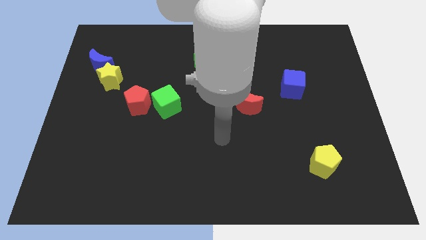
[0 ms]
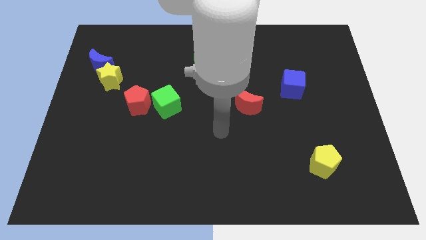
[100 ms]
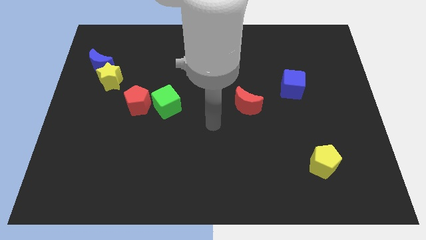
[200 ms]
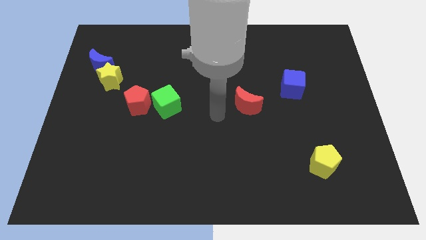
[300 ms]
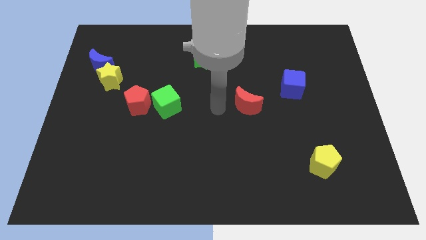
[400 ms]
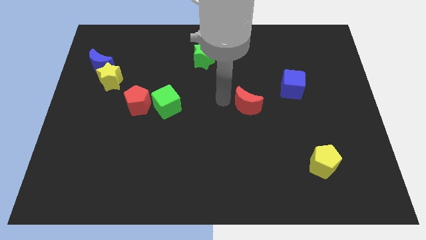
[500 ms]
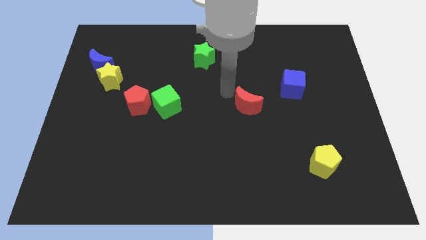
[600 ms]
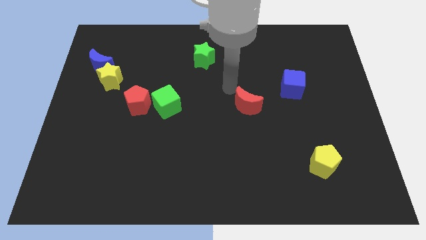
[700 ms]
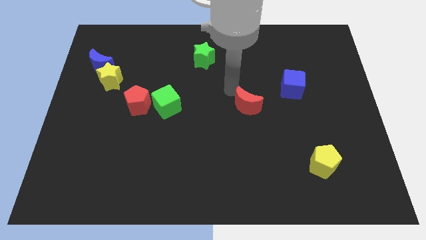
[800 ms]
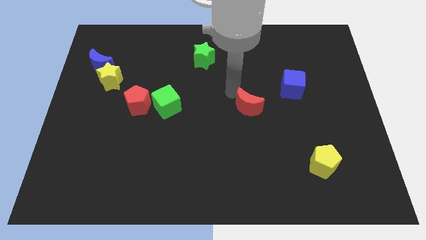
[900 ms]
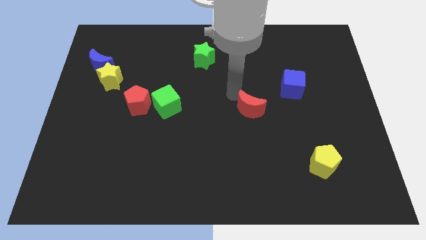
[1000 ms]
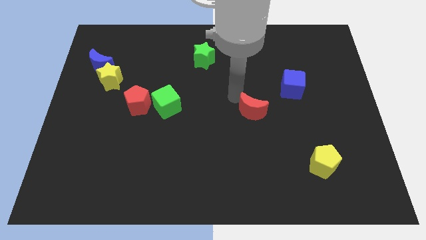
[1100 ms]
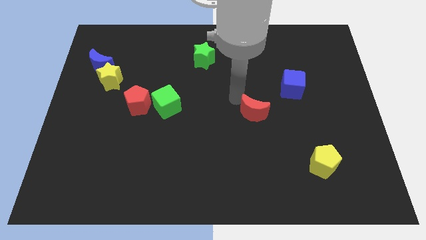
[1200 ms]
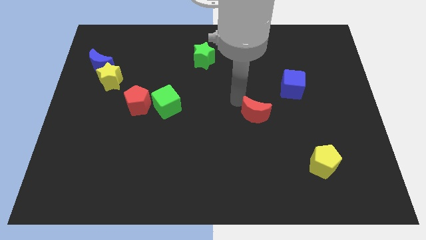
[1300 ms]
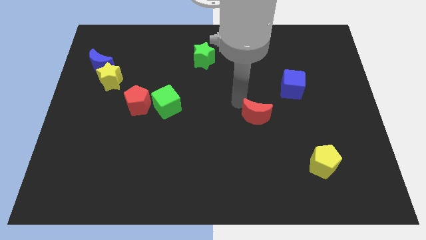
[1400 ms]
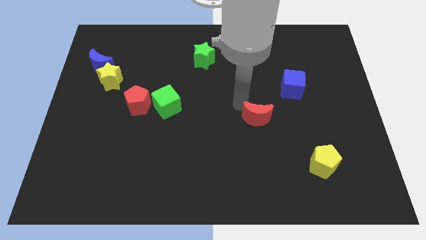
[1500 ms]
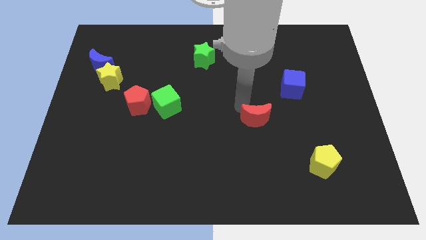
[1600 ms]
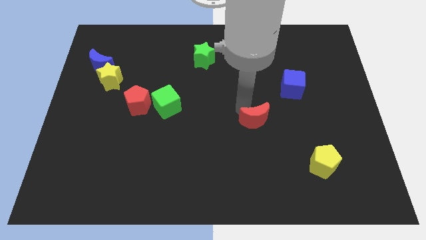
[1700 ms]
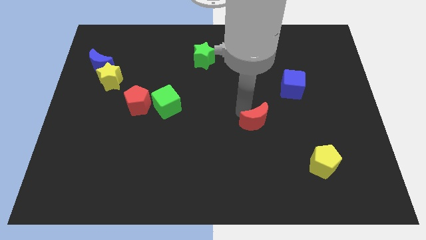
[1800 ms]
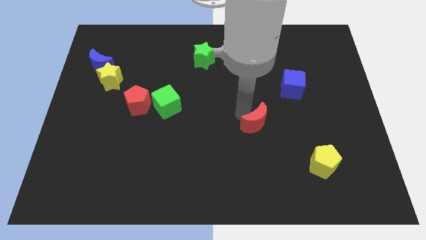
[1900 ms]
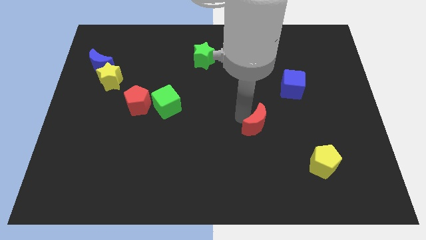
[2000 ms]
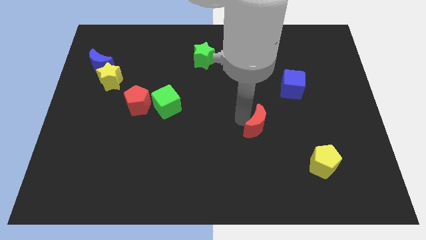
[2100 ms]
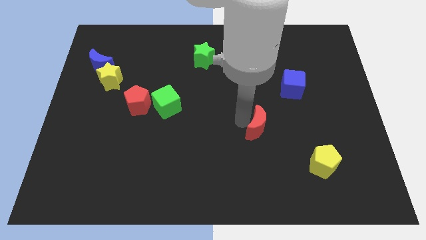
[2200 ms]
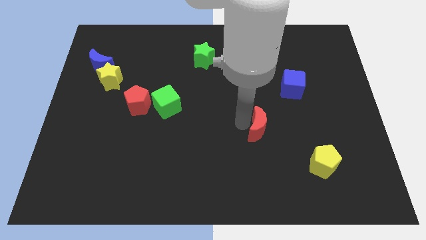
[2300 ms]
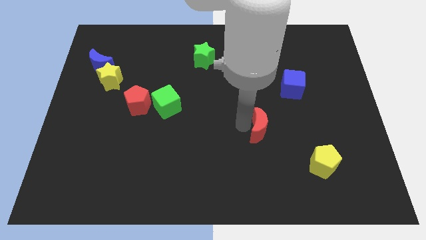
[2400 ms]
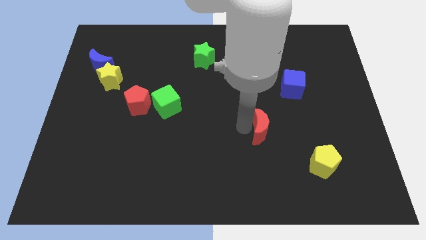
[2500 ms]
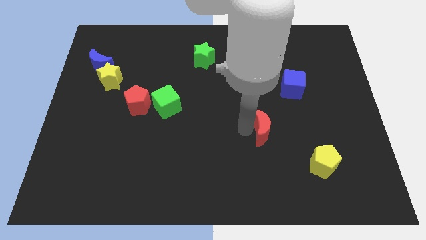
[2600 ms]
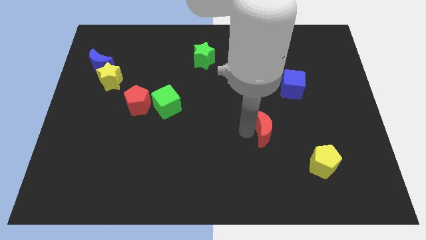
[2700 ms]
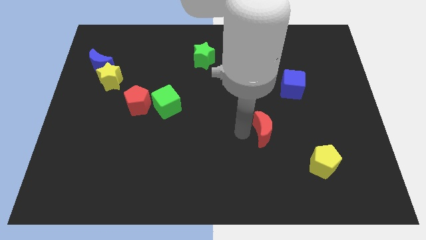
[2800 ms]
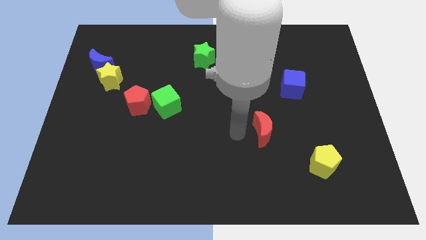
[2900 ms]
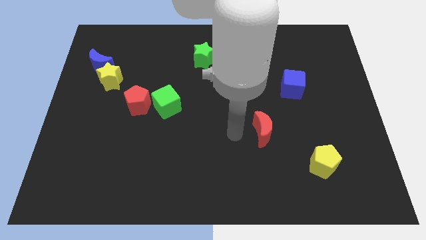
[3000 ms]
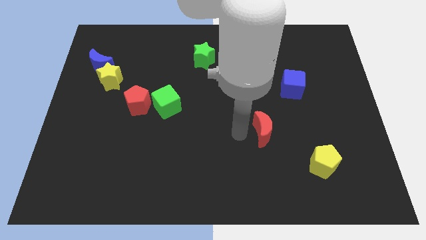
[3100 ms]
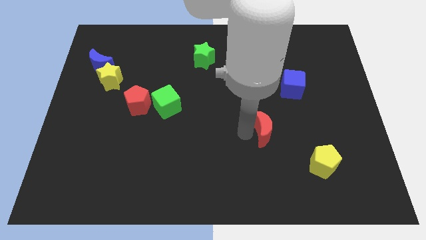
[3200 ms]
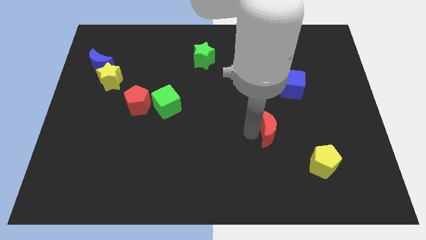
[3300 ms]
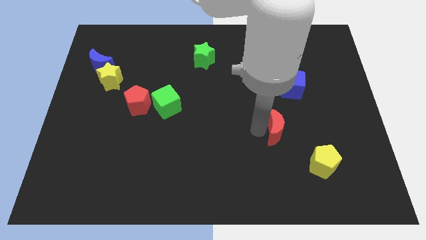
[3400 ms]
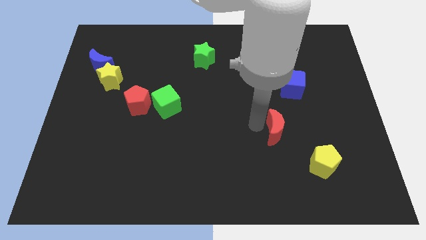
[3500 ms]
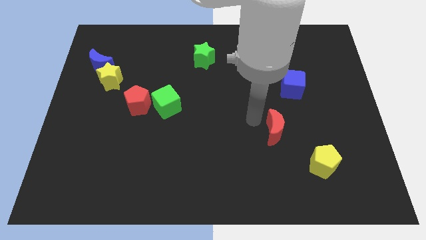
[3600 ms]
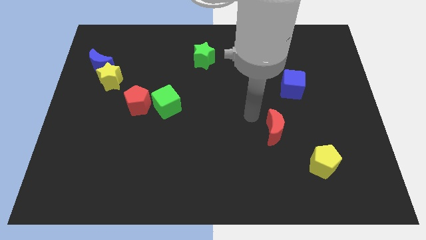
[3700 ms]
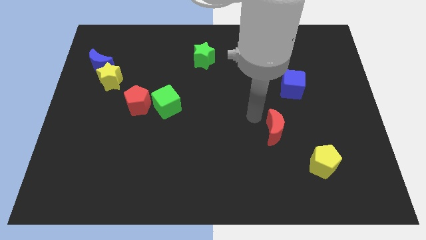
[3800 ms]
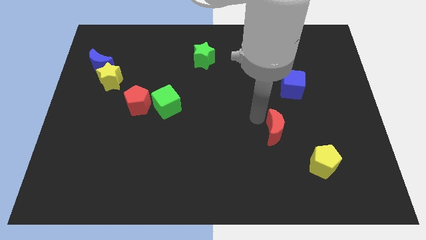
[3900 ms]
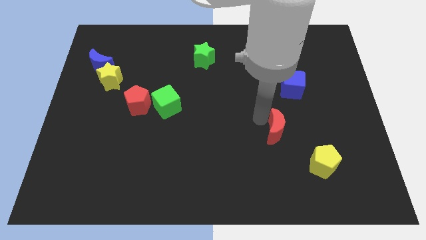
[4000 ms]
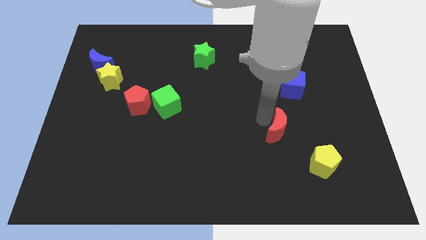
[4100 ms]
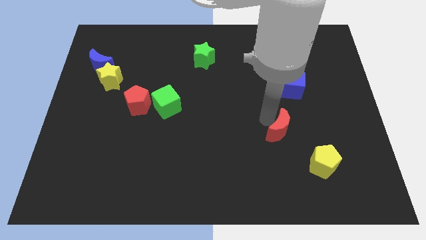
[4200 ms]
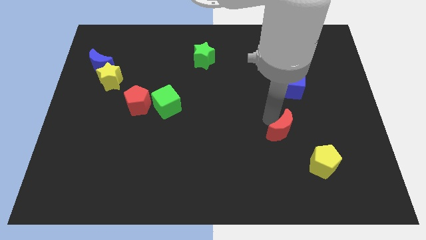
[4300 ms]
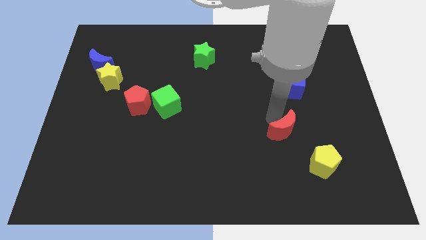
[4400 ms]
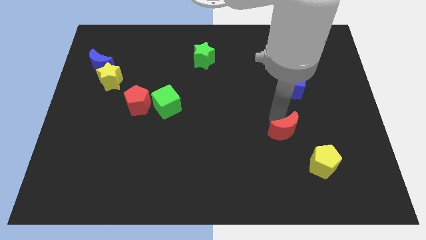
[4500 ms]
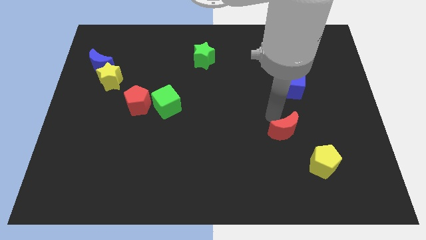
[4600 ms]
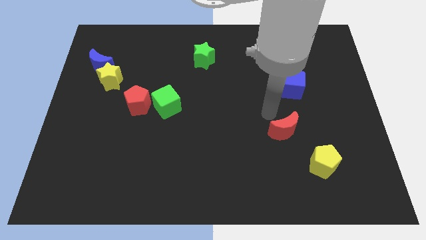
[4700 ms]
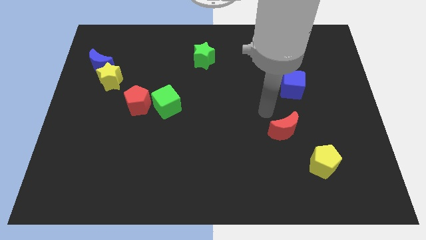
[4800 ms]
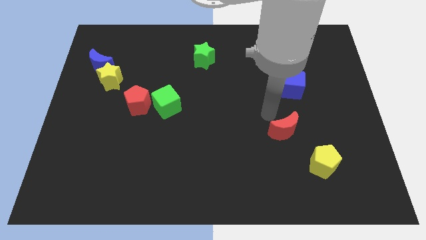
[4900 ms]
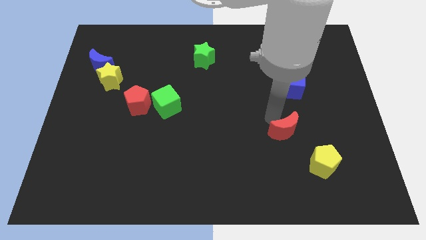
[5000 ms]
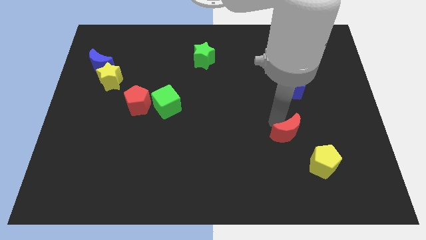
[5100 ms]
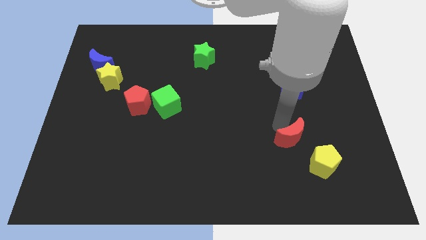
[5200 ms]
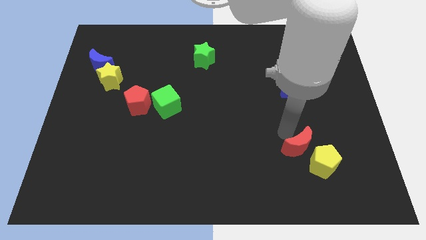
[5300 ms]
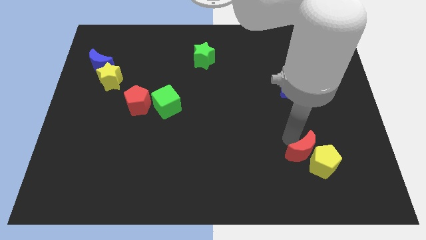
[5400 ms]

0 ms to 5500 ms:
put the red moon close to the yellow pentagon

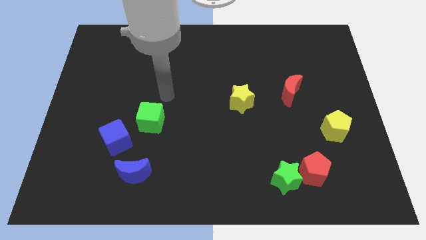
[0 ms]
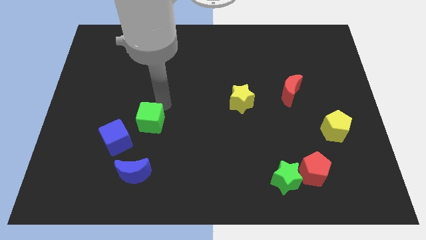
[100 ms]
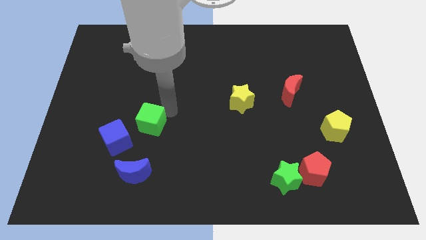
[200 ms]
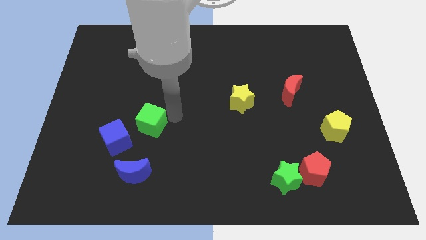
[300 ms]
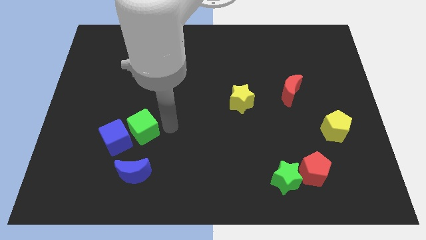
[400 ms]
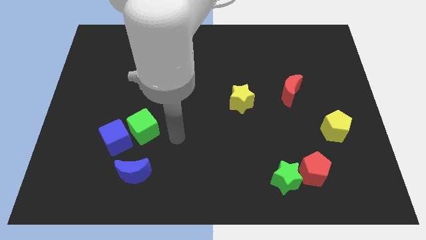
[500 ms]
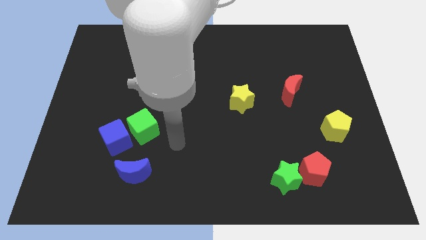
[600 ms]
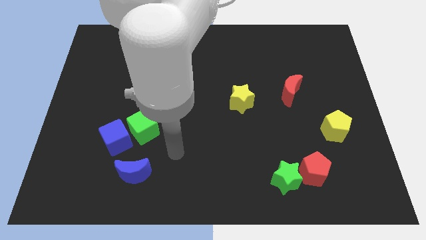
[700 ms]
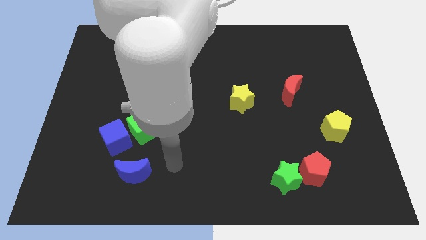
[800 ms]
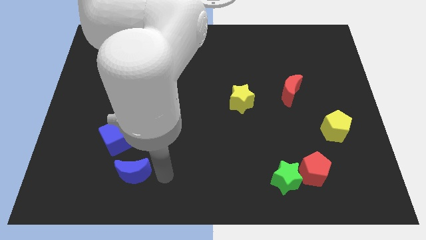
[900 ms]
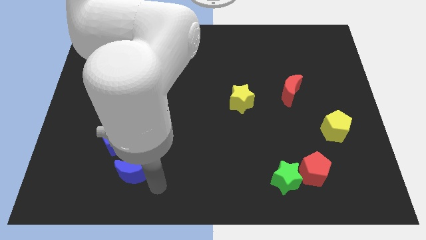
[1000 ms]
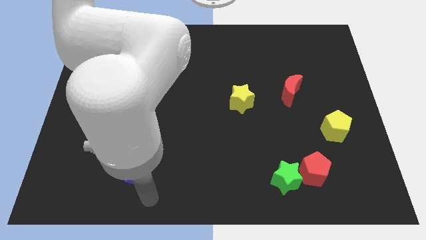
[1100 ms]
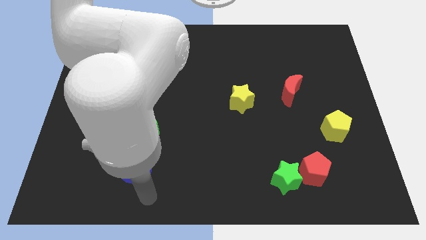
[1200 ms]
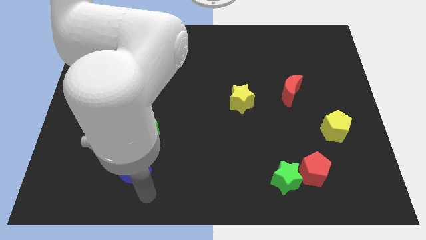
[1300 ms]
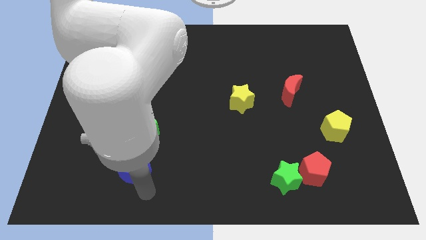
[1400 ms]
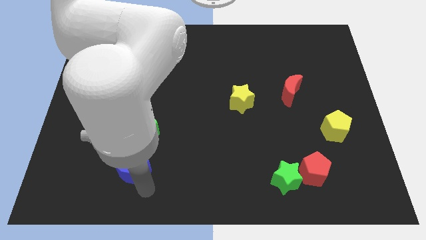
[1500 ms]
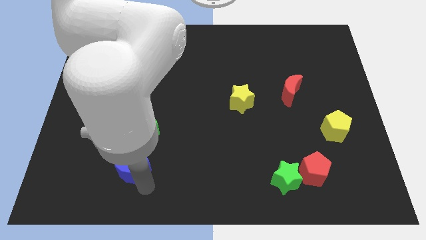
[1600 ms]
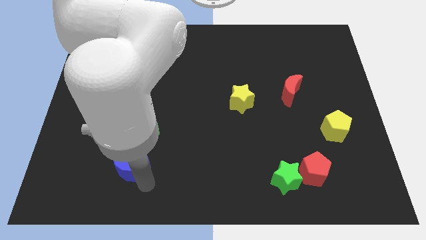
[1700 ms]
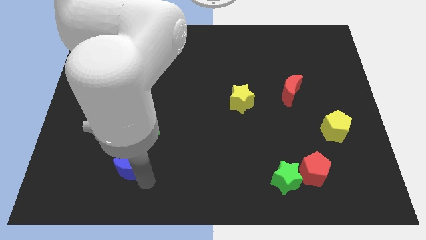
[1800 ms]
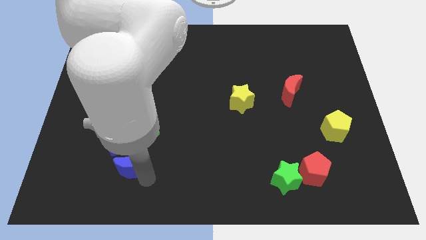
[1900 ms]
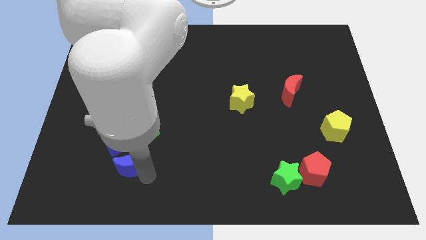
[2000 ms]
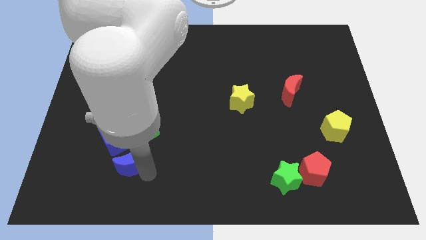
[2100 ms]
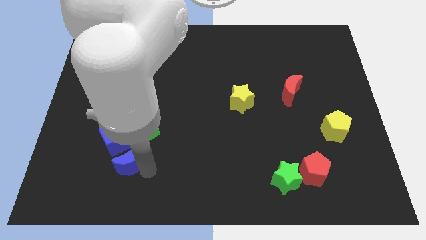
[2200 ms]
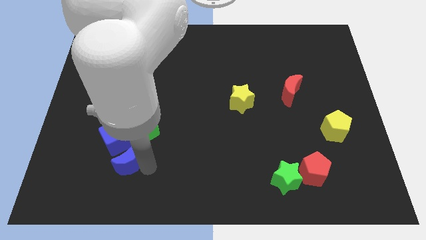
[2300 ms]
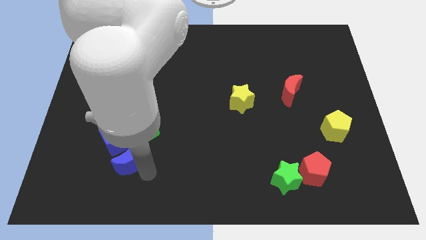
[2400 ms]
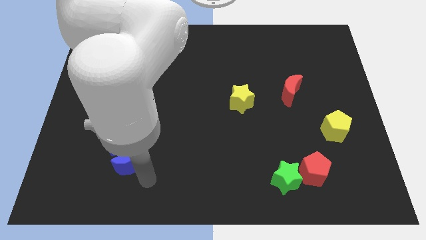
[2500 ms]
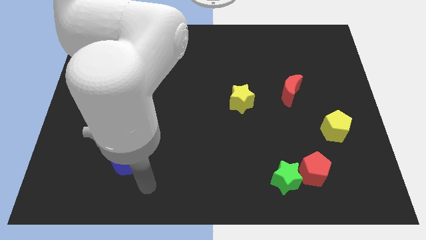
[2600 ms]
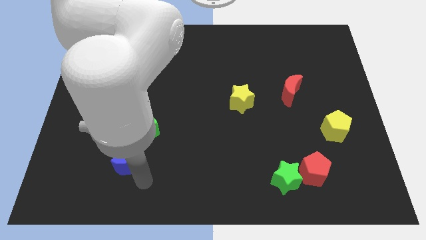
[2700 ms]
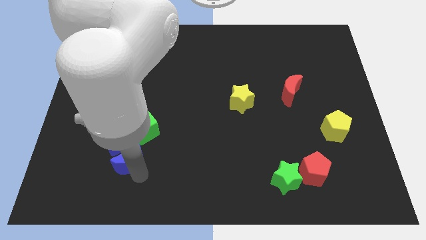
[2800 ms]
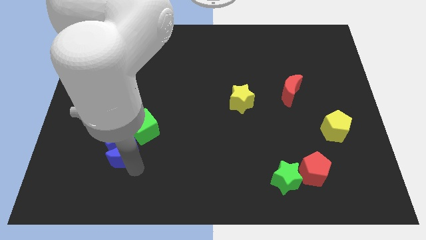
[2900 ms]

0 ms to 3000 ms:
put the blue moon next to the blue cube
